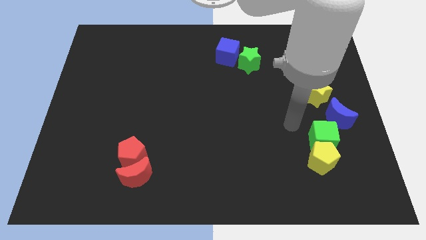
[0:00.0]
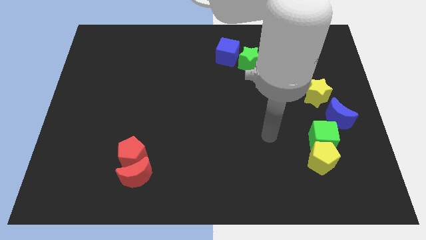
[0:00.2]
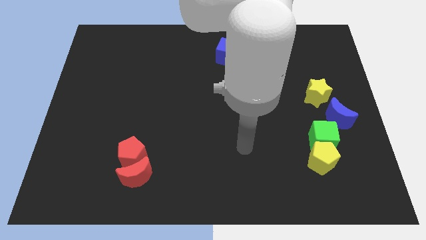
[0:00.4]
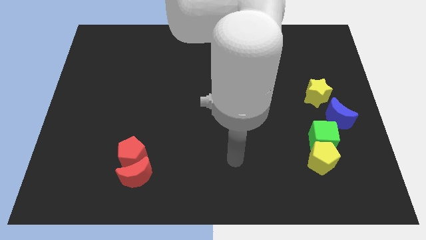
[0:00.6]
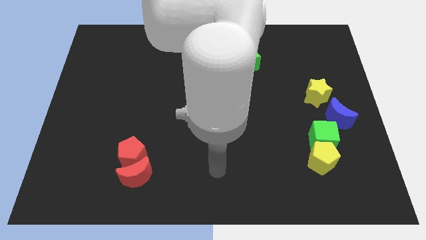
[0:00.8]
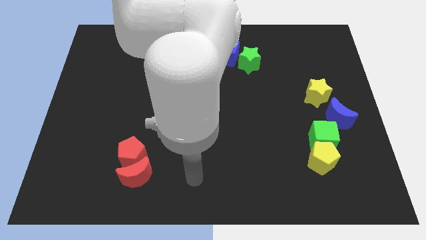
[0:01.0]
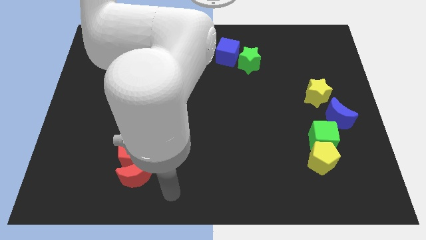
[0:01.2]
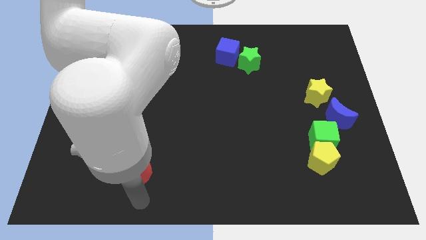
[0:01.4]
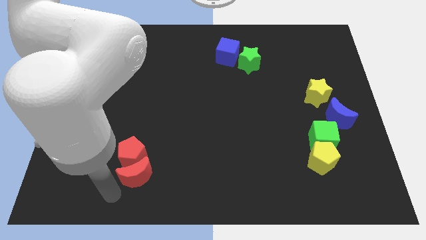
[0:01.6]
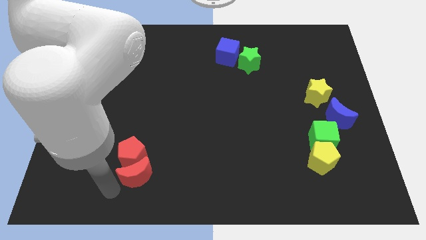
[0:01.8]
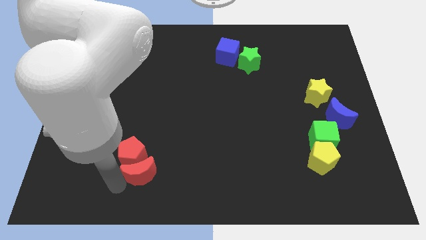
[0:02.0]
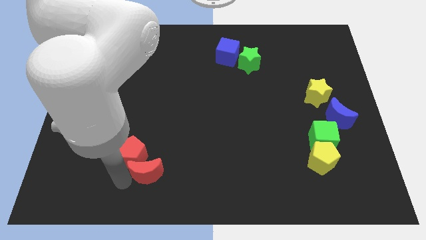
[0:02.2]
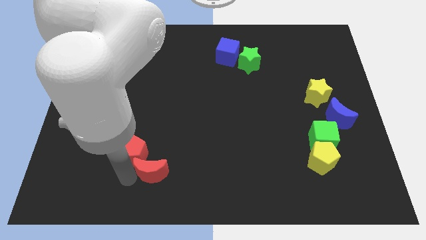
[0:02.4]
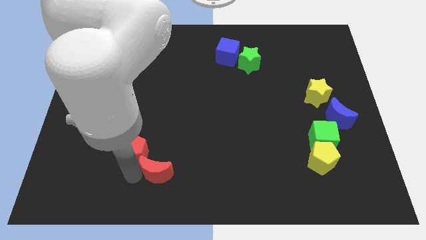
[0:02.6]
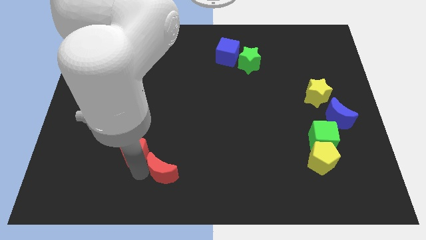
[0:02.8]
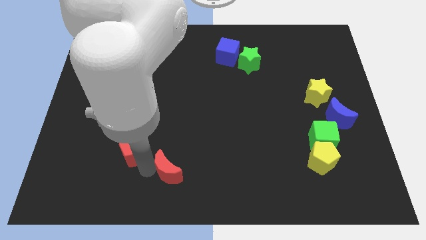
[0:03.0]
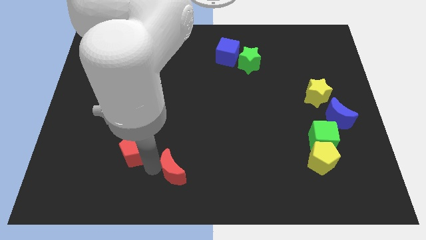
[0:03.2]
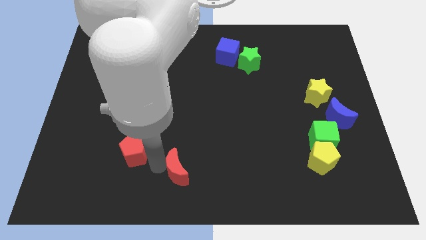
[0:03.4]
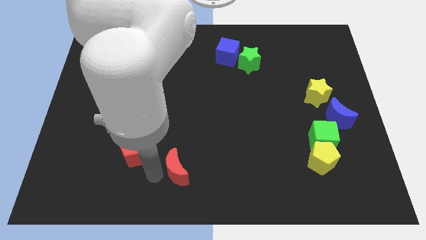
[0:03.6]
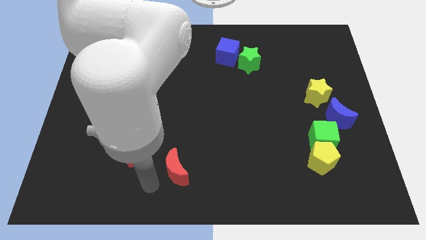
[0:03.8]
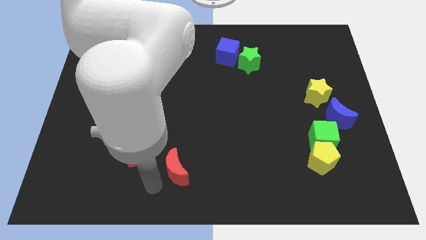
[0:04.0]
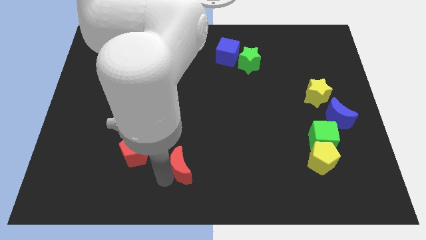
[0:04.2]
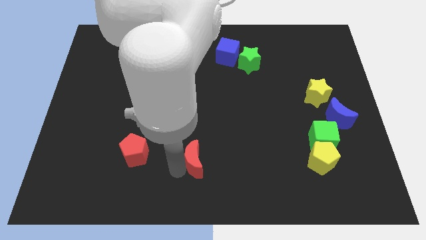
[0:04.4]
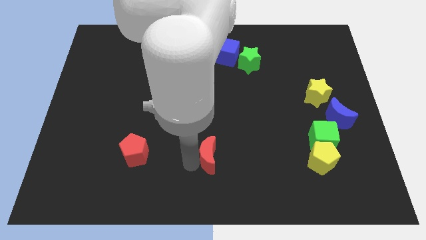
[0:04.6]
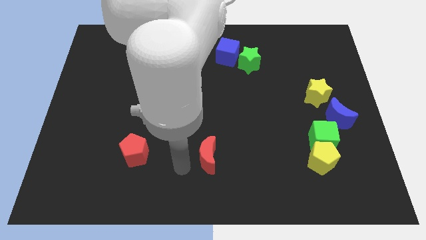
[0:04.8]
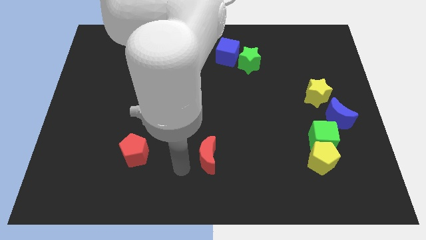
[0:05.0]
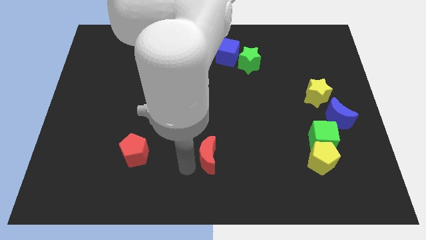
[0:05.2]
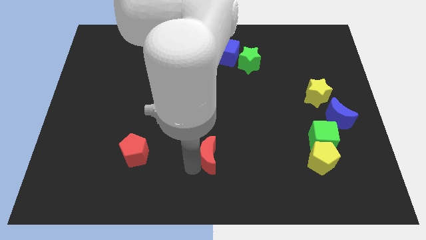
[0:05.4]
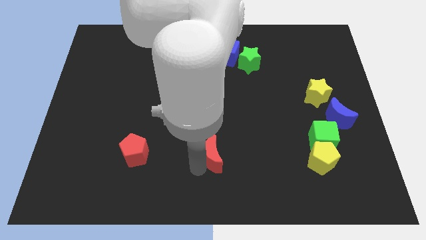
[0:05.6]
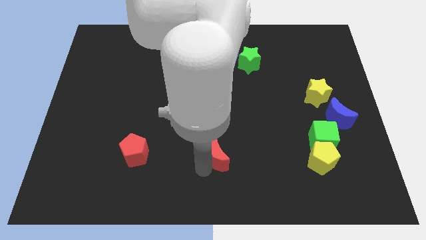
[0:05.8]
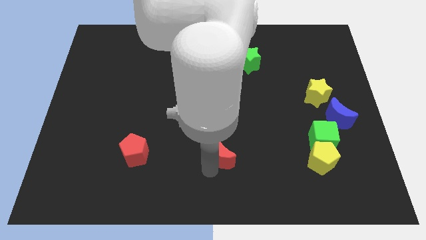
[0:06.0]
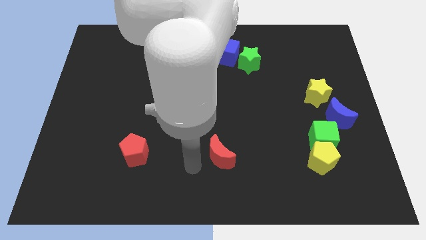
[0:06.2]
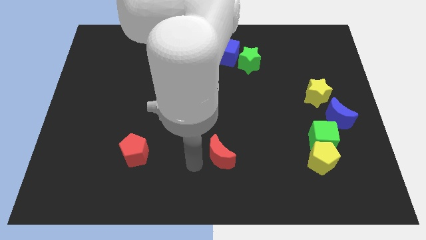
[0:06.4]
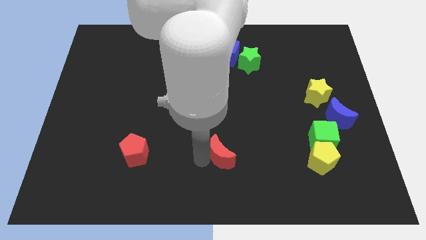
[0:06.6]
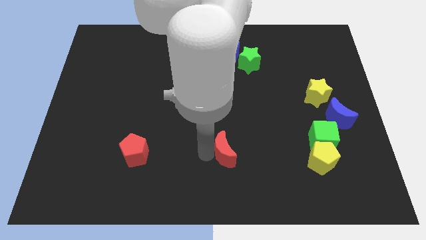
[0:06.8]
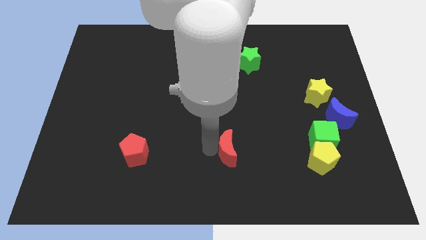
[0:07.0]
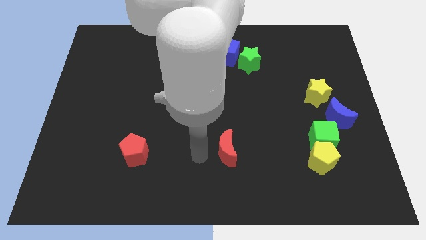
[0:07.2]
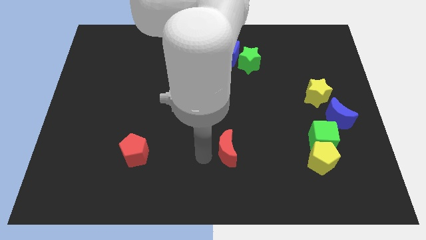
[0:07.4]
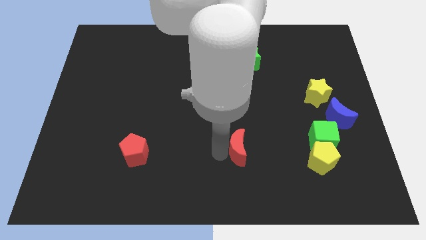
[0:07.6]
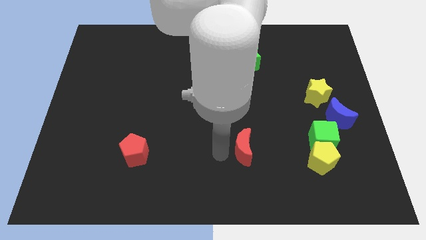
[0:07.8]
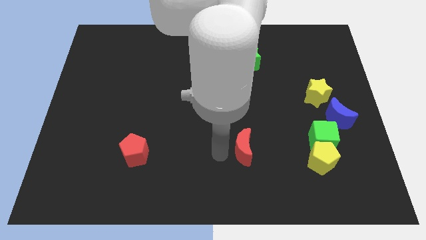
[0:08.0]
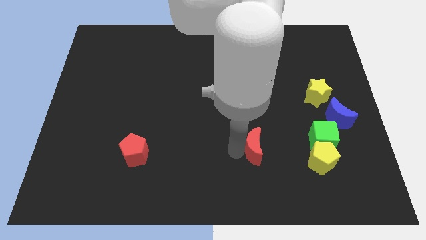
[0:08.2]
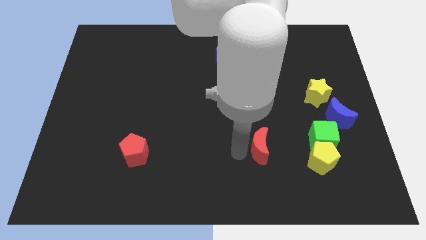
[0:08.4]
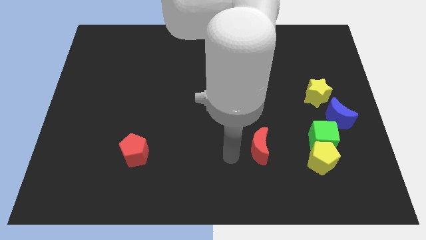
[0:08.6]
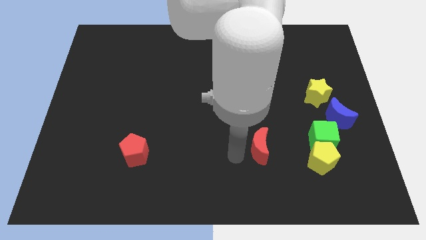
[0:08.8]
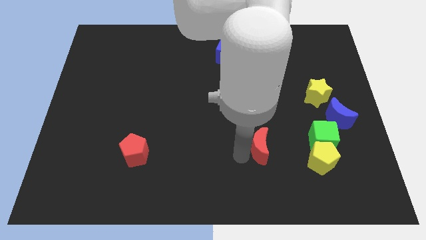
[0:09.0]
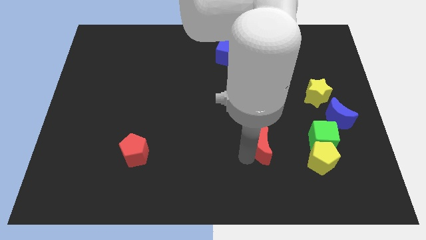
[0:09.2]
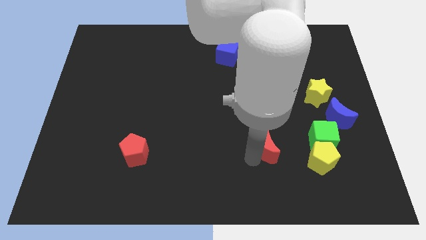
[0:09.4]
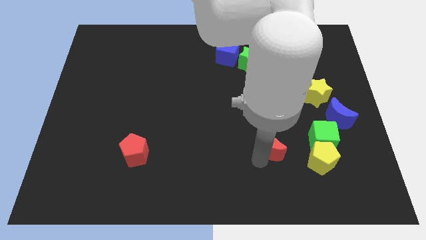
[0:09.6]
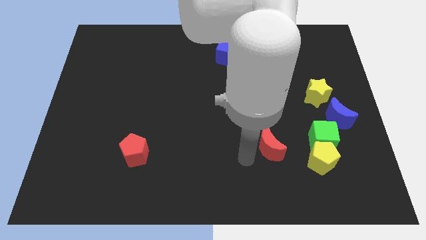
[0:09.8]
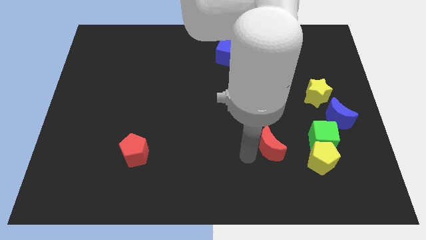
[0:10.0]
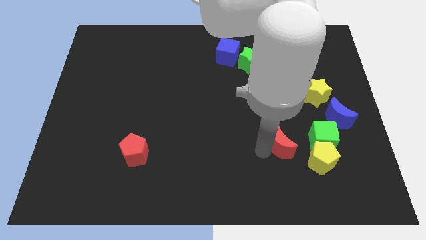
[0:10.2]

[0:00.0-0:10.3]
slide the red moon to the top left side of the yellow pentagon

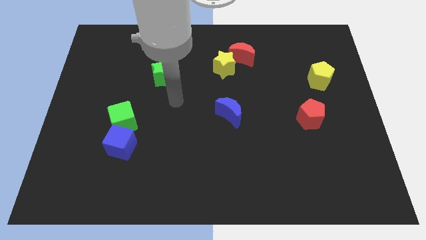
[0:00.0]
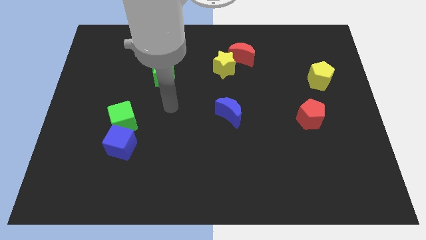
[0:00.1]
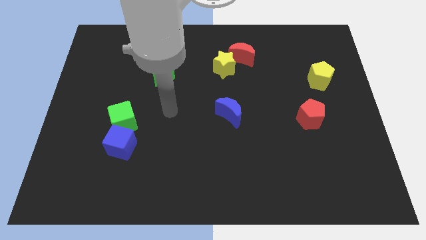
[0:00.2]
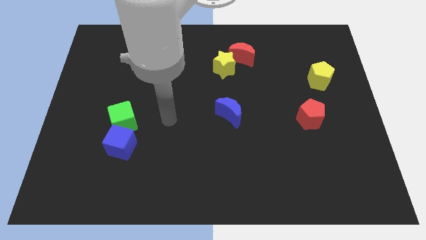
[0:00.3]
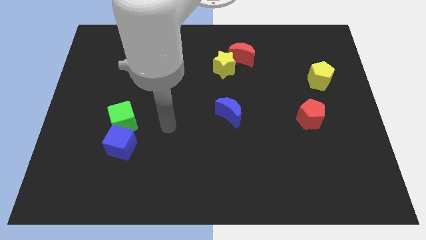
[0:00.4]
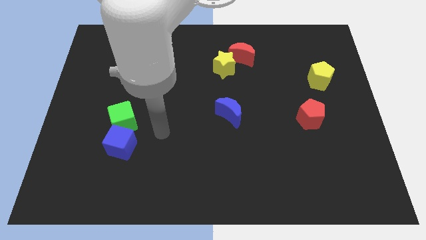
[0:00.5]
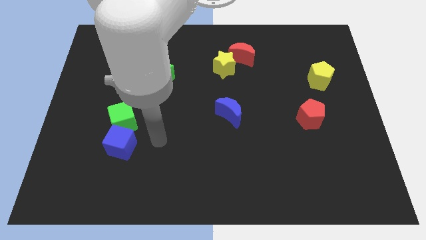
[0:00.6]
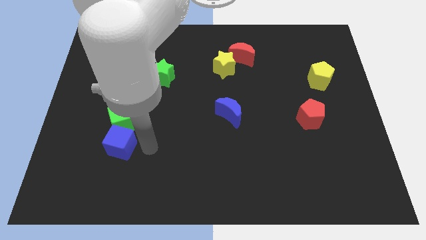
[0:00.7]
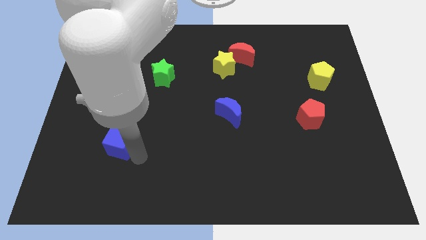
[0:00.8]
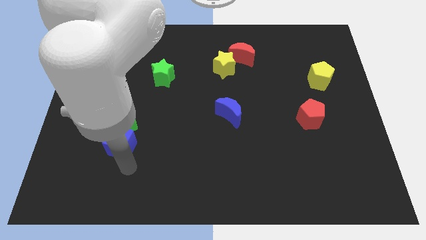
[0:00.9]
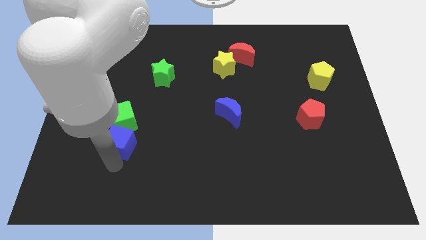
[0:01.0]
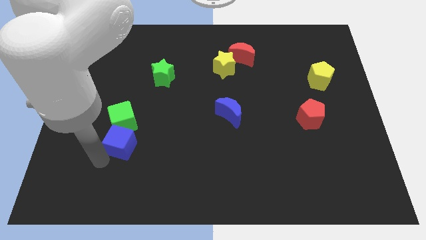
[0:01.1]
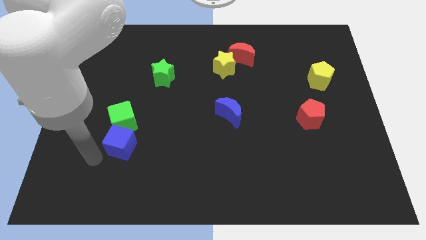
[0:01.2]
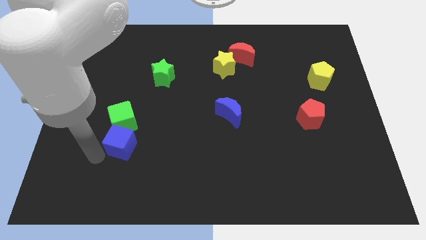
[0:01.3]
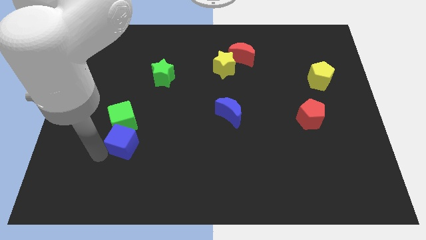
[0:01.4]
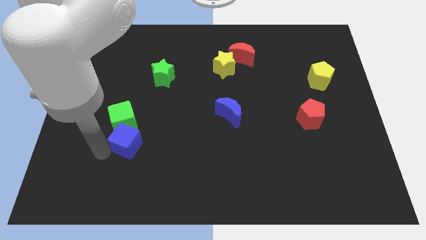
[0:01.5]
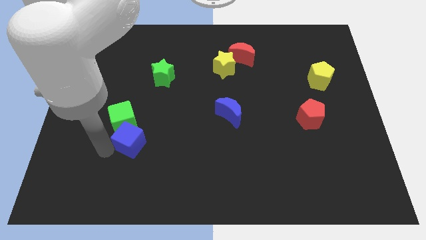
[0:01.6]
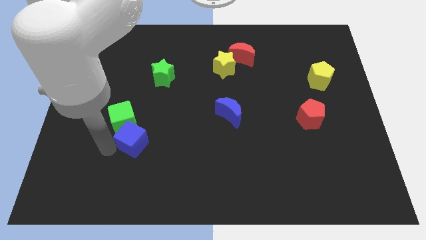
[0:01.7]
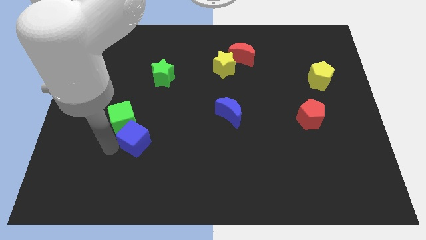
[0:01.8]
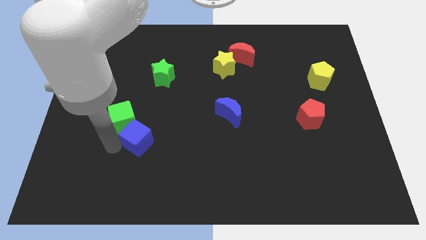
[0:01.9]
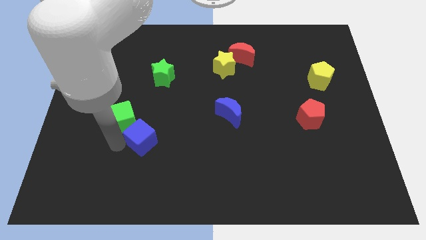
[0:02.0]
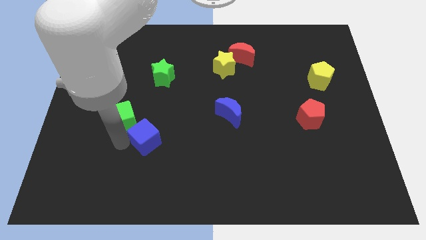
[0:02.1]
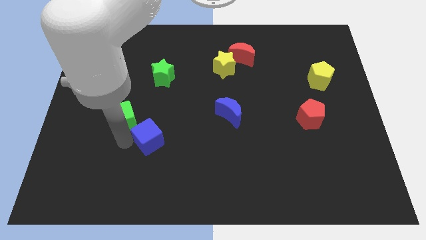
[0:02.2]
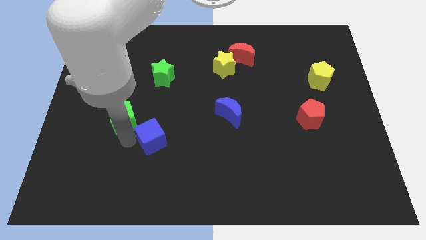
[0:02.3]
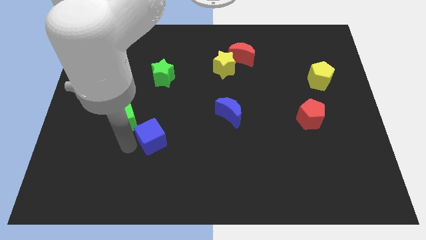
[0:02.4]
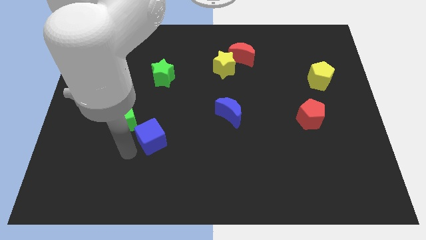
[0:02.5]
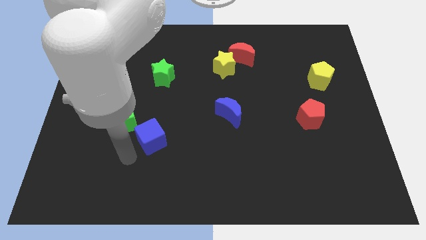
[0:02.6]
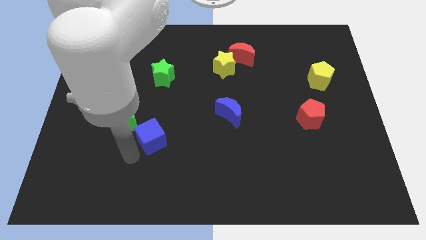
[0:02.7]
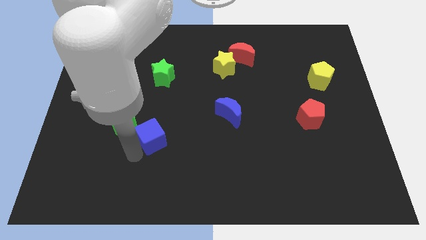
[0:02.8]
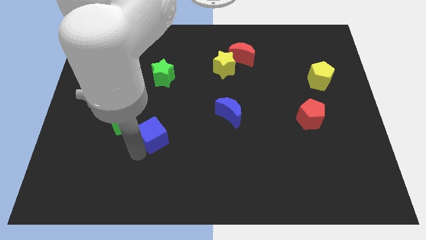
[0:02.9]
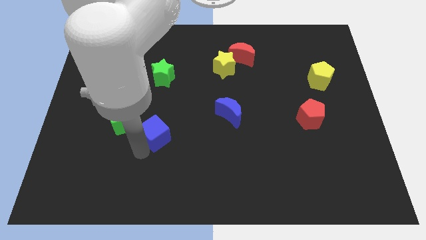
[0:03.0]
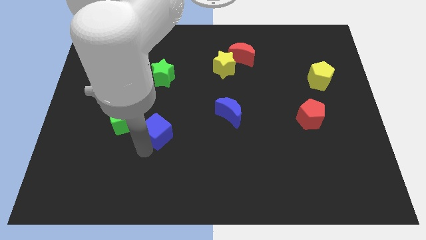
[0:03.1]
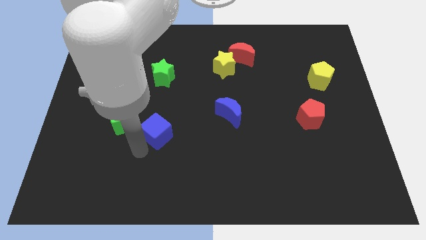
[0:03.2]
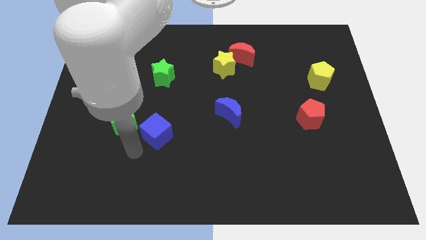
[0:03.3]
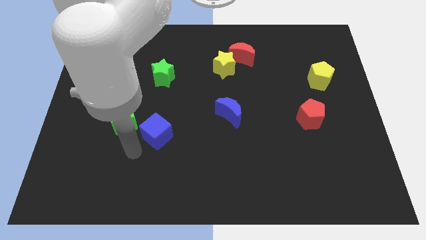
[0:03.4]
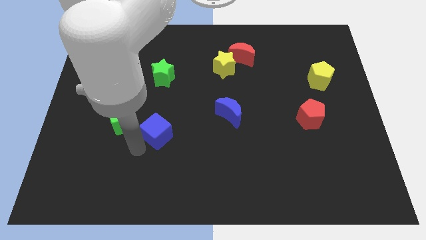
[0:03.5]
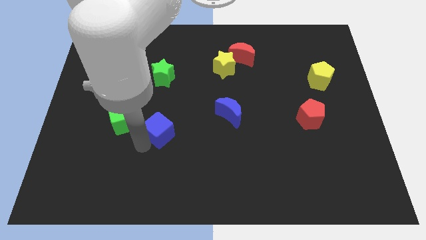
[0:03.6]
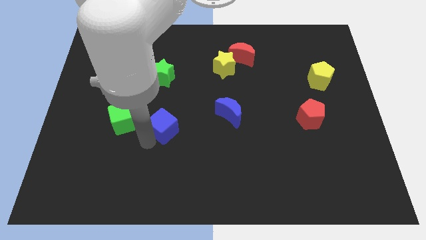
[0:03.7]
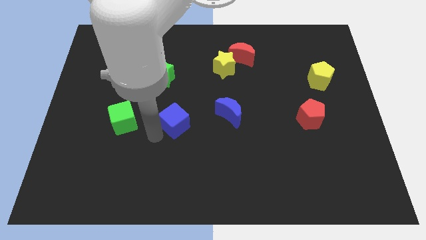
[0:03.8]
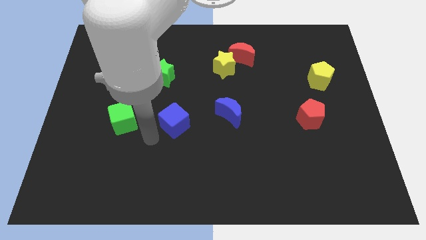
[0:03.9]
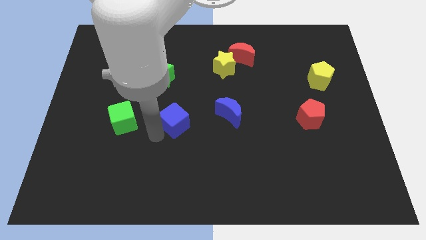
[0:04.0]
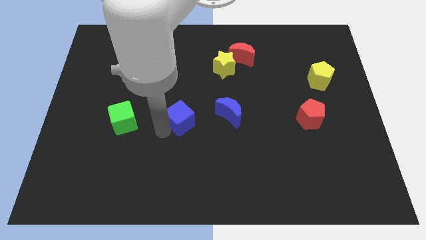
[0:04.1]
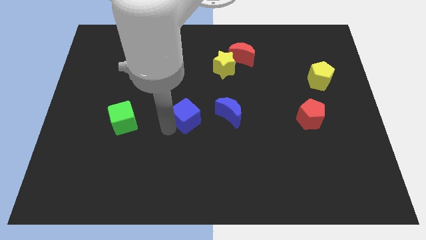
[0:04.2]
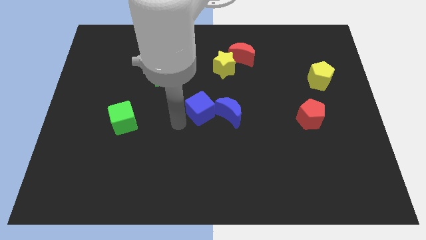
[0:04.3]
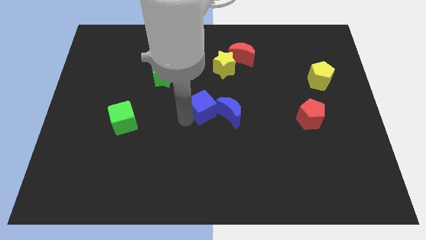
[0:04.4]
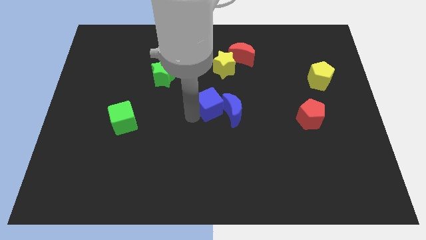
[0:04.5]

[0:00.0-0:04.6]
move the blue cube to the bottom side of the yellow star
